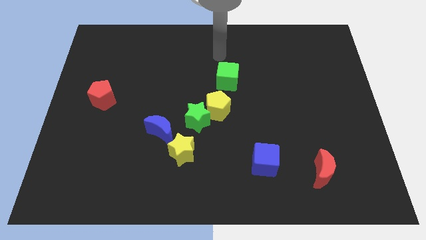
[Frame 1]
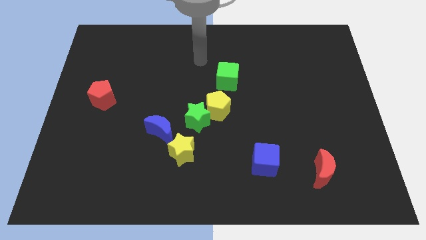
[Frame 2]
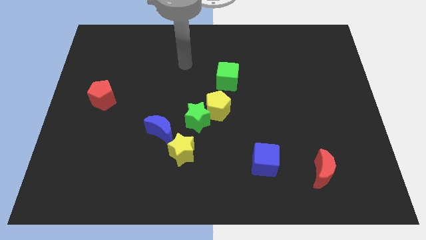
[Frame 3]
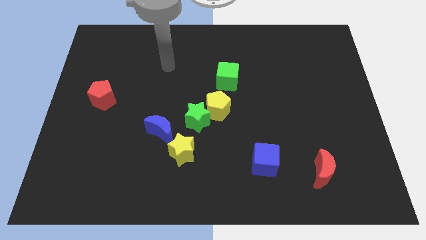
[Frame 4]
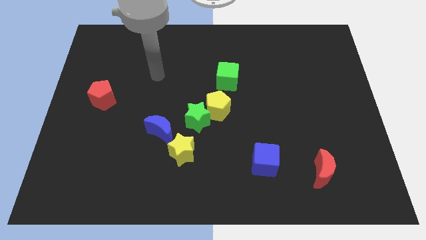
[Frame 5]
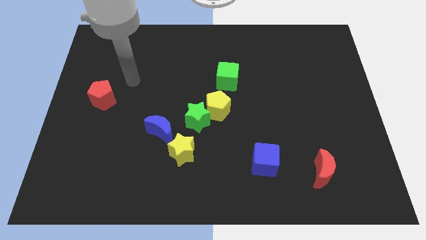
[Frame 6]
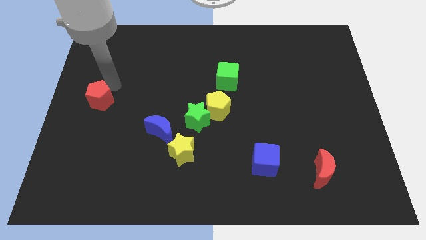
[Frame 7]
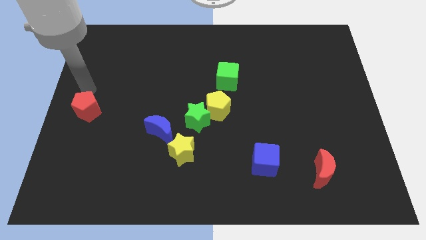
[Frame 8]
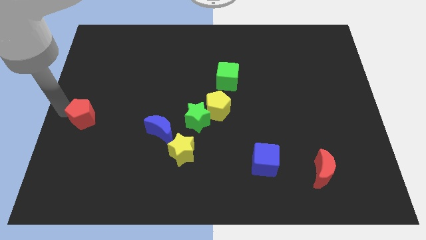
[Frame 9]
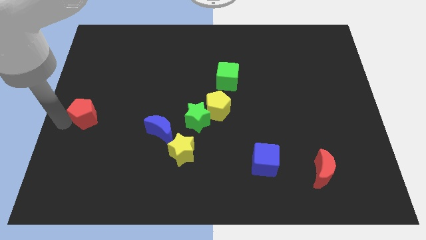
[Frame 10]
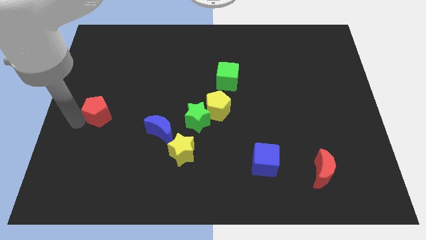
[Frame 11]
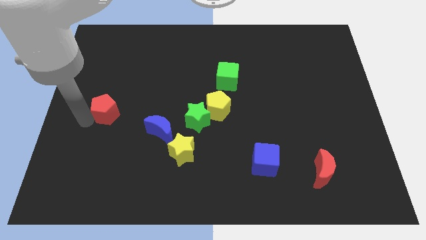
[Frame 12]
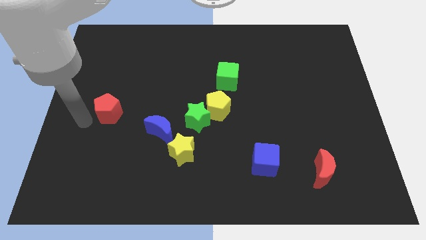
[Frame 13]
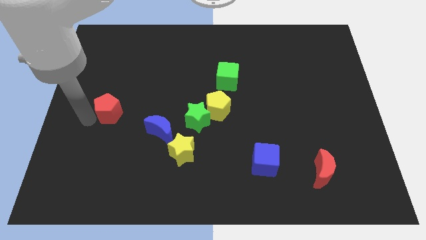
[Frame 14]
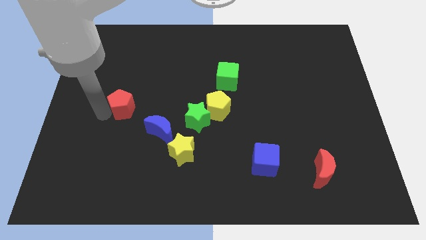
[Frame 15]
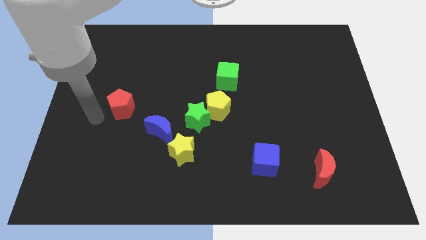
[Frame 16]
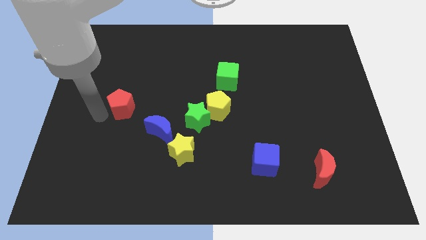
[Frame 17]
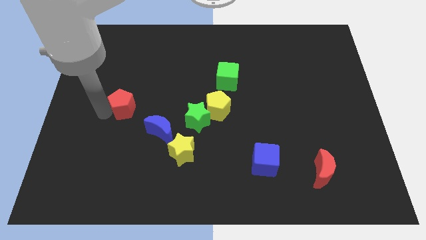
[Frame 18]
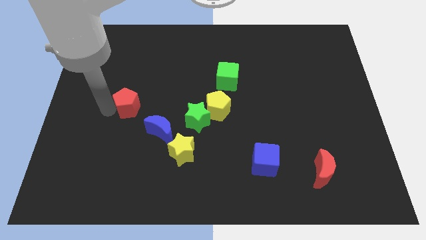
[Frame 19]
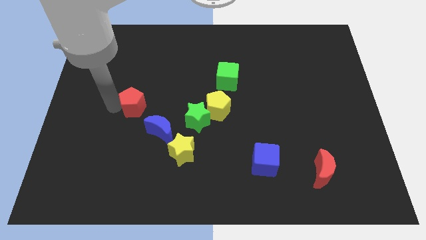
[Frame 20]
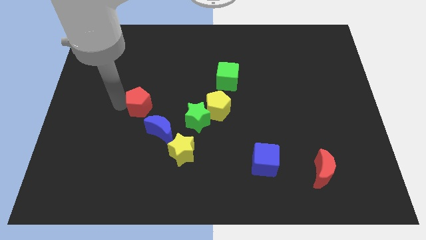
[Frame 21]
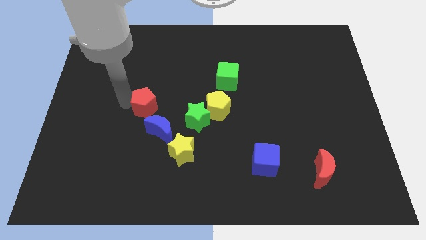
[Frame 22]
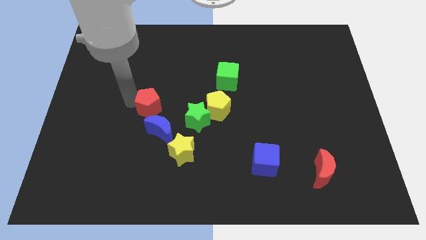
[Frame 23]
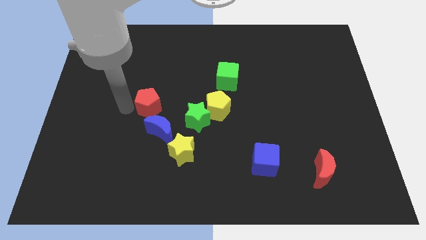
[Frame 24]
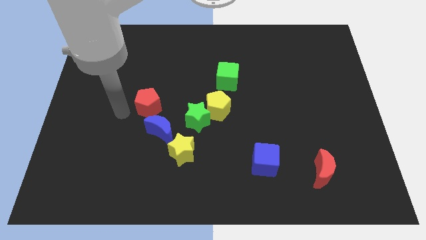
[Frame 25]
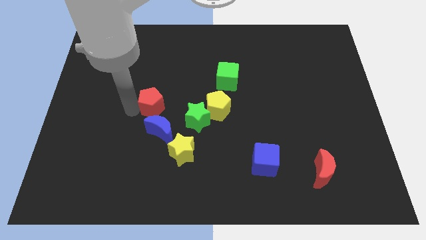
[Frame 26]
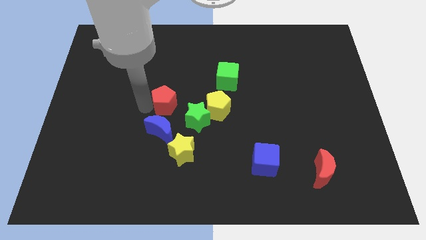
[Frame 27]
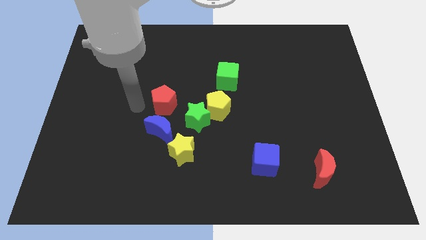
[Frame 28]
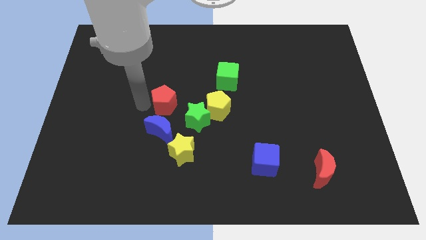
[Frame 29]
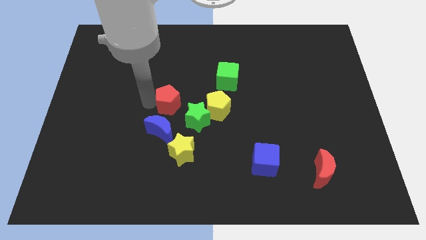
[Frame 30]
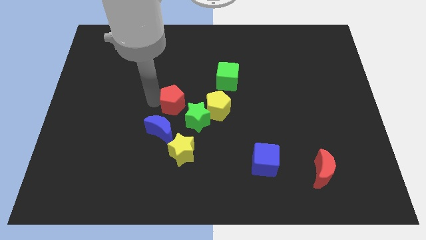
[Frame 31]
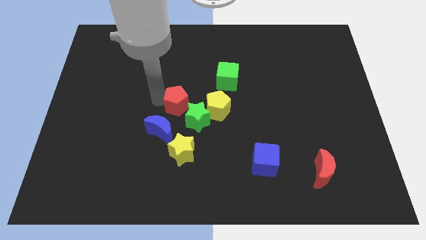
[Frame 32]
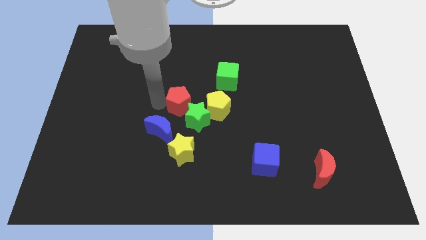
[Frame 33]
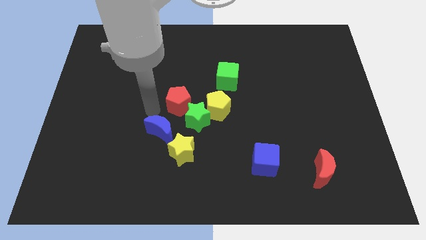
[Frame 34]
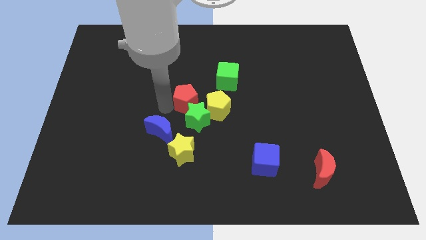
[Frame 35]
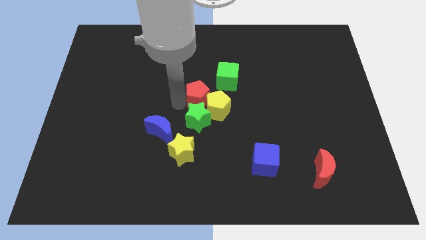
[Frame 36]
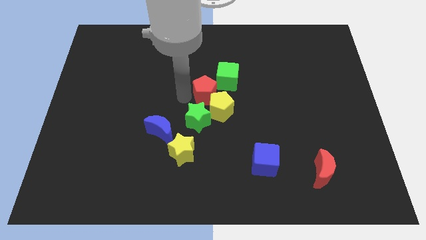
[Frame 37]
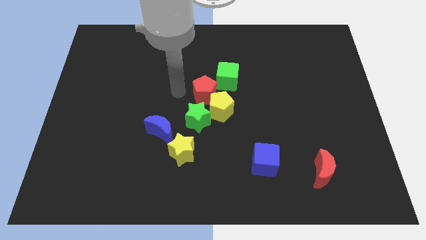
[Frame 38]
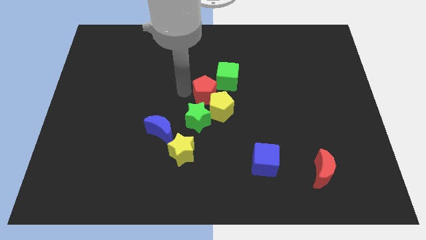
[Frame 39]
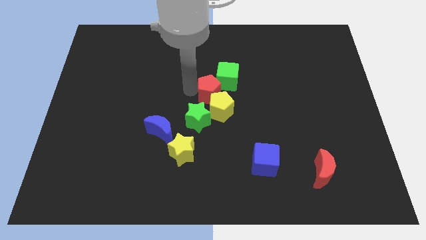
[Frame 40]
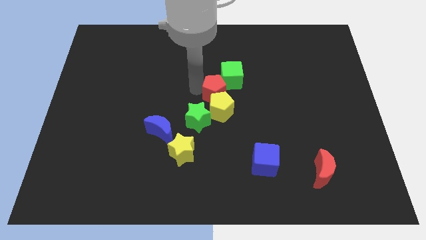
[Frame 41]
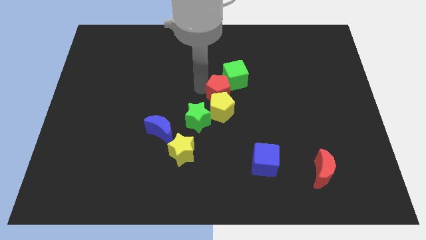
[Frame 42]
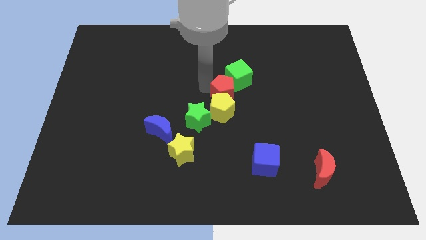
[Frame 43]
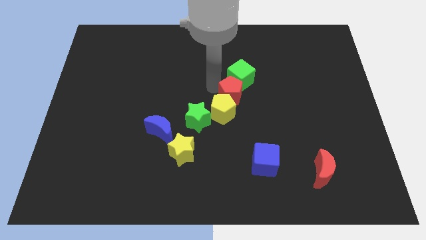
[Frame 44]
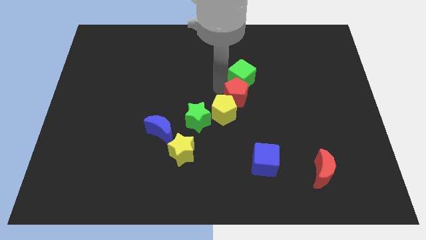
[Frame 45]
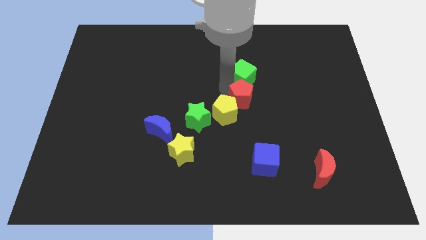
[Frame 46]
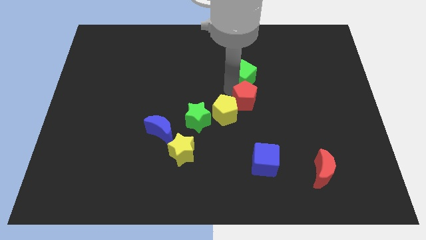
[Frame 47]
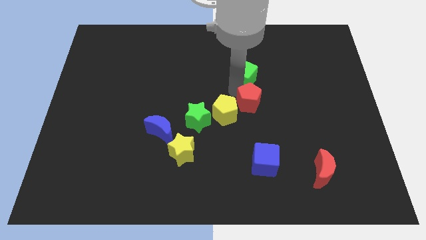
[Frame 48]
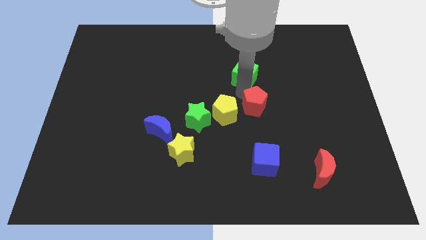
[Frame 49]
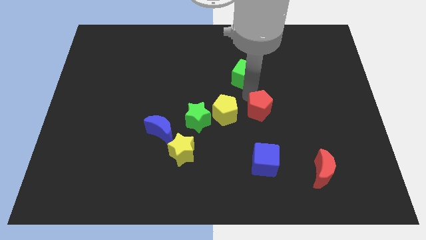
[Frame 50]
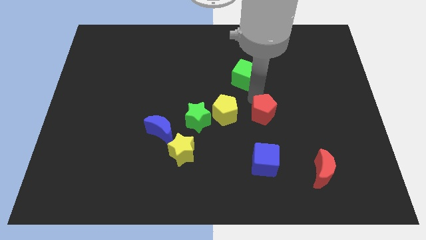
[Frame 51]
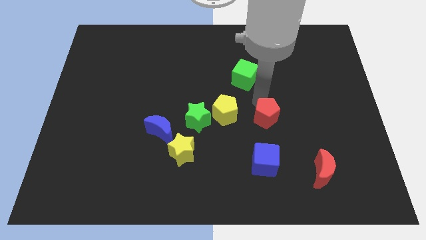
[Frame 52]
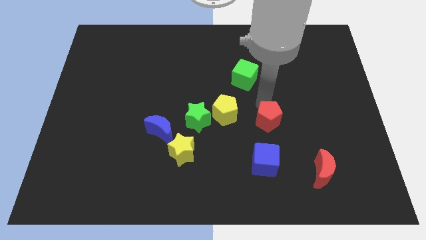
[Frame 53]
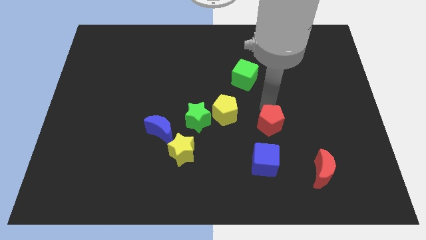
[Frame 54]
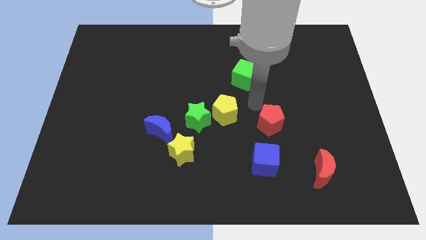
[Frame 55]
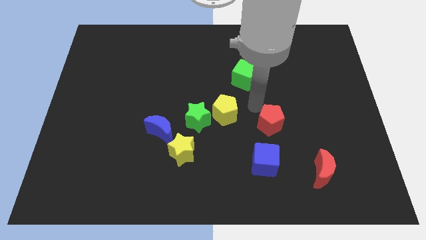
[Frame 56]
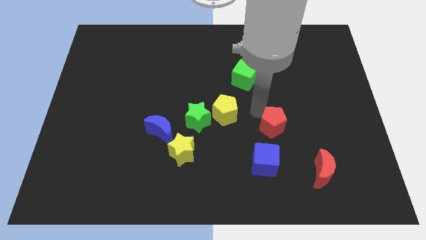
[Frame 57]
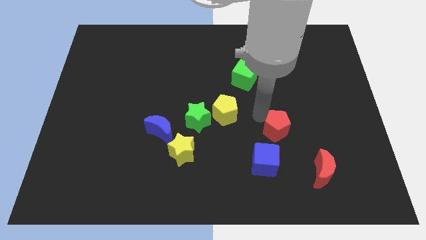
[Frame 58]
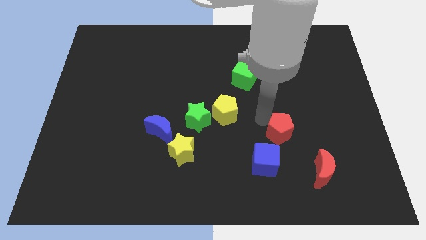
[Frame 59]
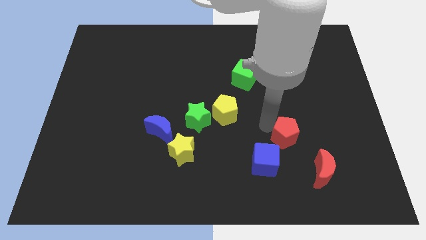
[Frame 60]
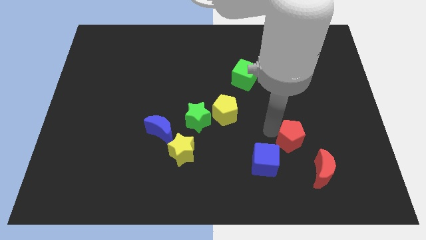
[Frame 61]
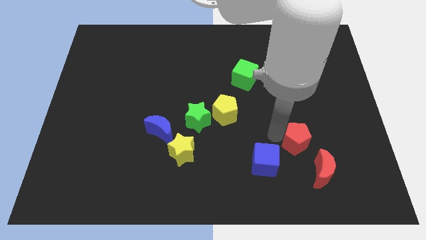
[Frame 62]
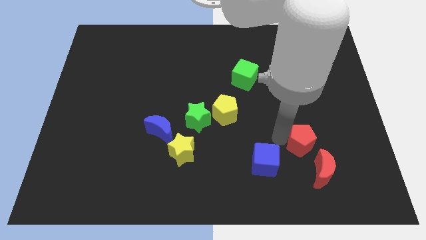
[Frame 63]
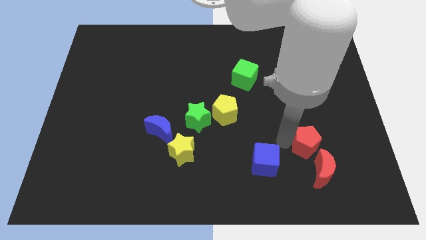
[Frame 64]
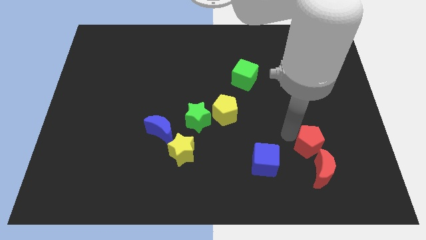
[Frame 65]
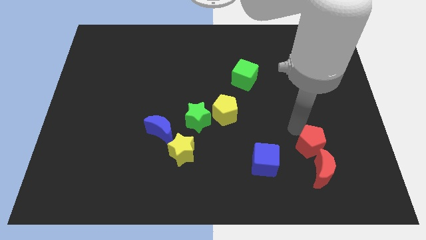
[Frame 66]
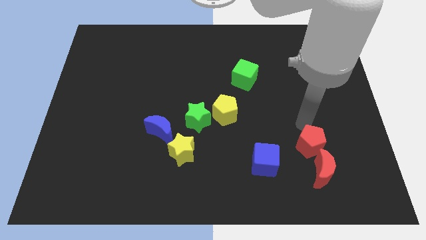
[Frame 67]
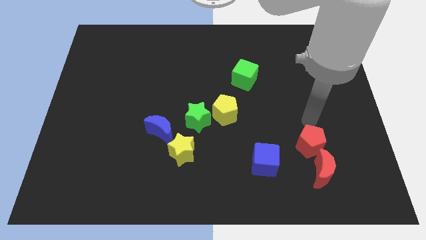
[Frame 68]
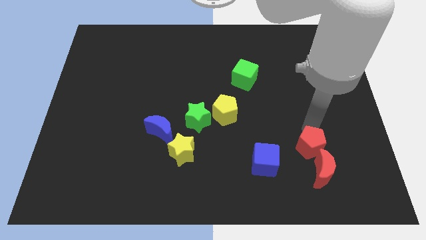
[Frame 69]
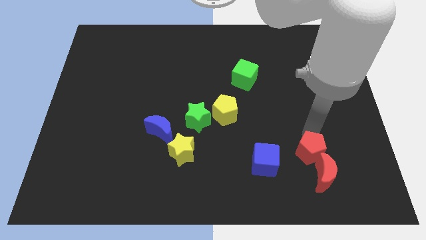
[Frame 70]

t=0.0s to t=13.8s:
slide the red pentagon towards the red moon
